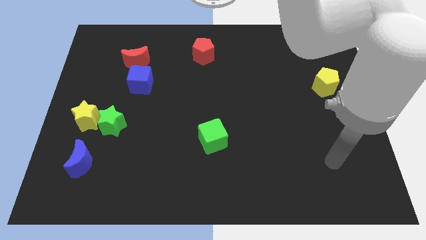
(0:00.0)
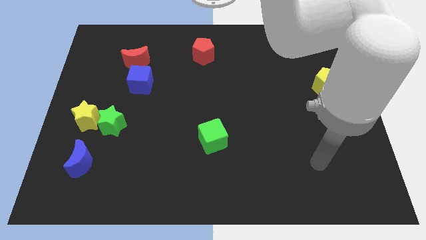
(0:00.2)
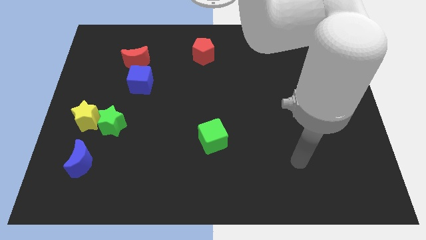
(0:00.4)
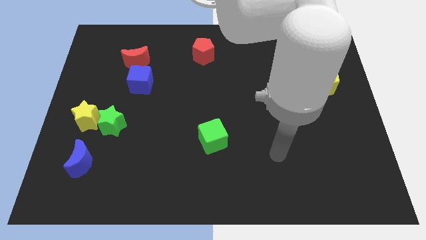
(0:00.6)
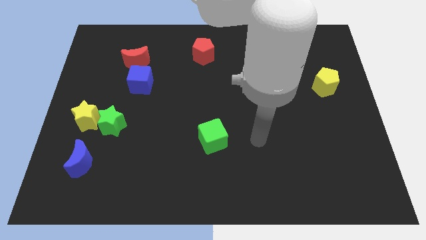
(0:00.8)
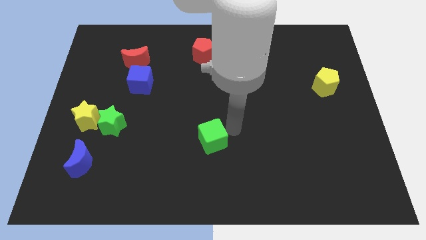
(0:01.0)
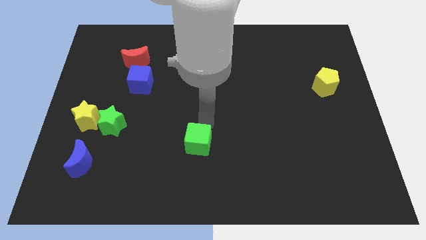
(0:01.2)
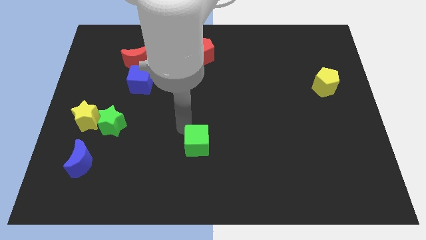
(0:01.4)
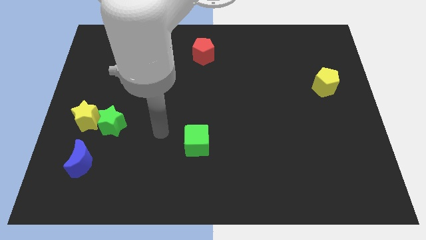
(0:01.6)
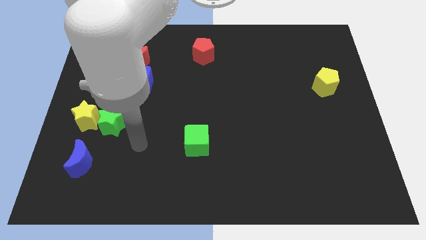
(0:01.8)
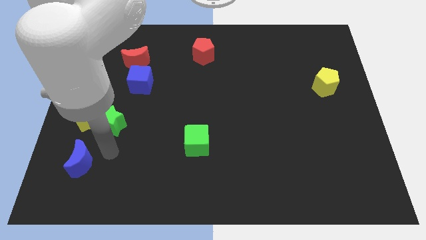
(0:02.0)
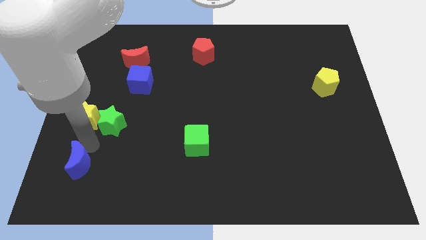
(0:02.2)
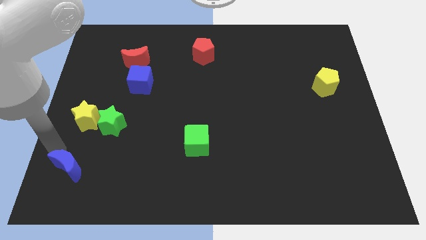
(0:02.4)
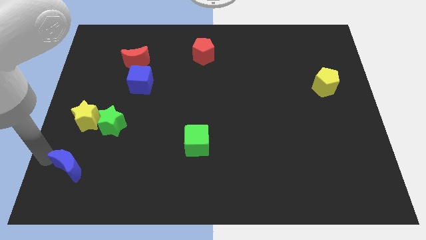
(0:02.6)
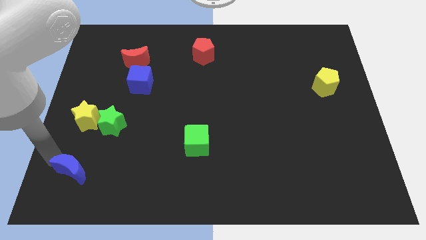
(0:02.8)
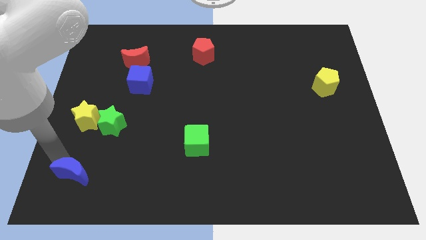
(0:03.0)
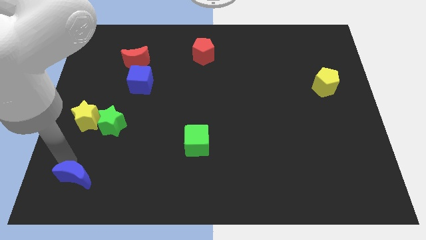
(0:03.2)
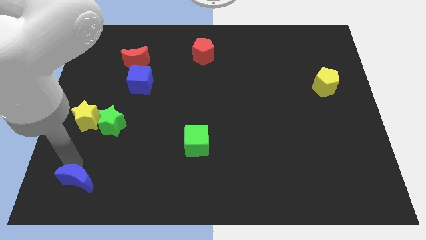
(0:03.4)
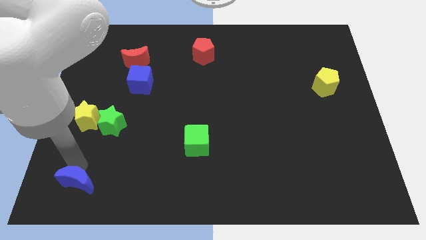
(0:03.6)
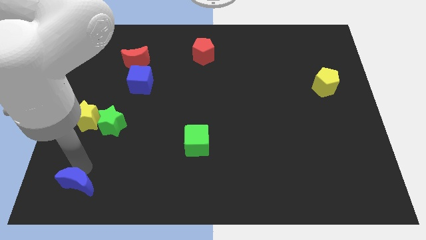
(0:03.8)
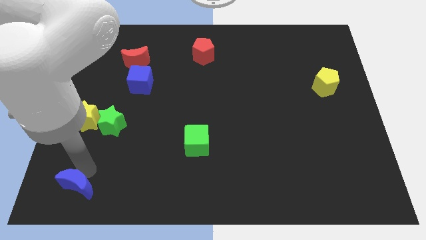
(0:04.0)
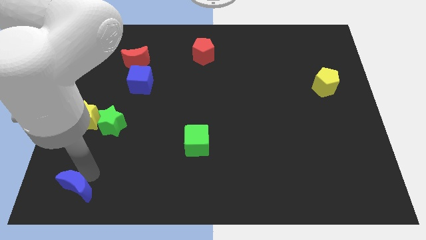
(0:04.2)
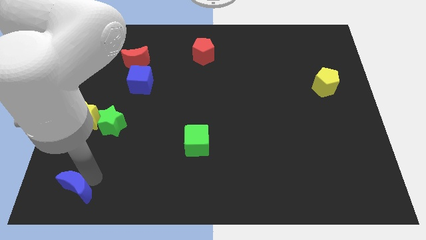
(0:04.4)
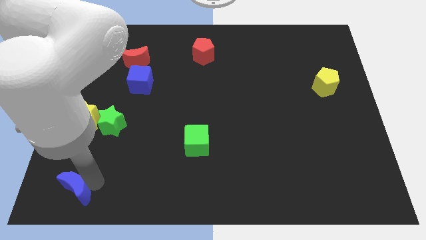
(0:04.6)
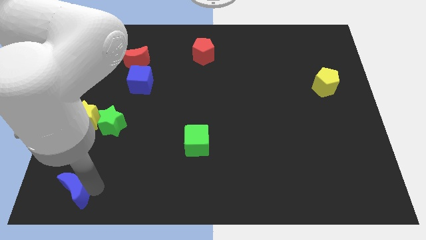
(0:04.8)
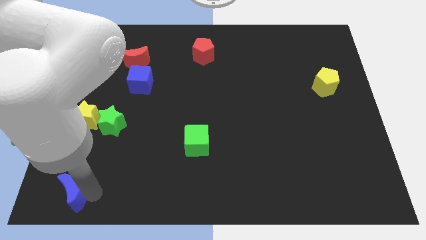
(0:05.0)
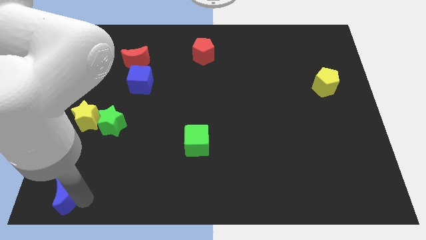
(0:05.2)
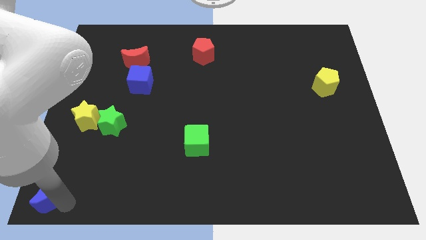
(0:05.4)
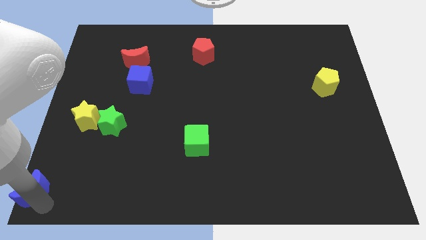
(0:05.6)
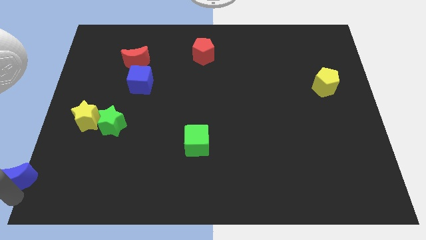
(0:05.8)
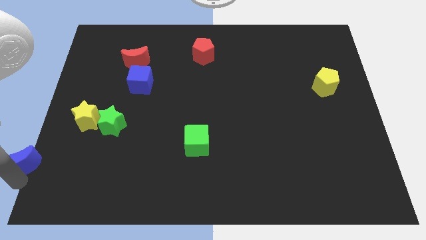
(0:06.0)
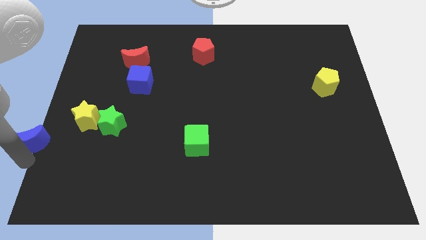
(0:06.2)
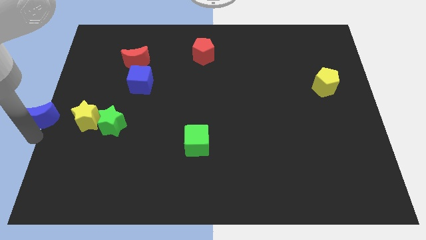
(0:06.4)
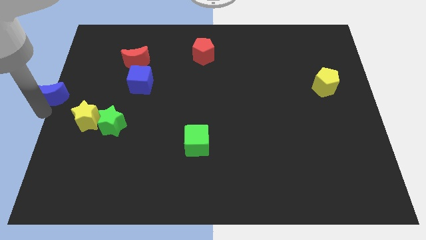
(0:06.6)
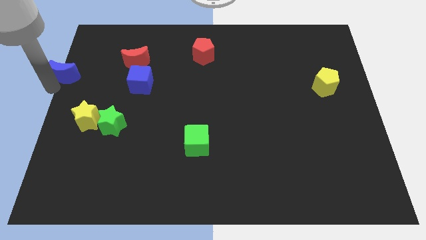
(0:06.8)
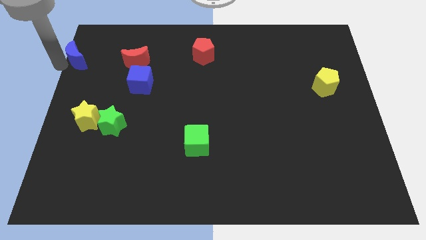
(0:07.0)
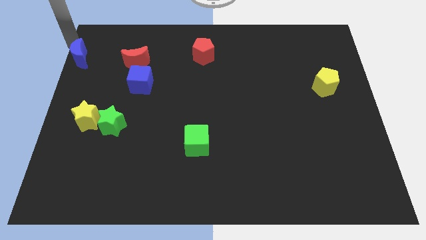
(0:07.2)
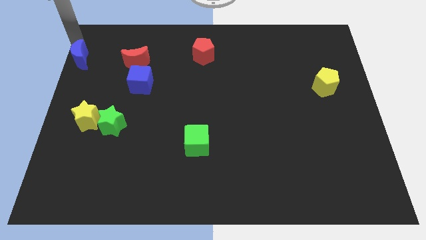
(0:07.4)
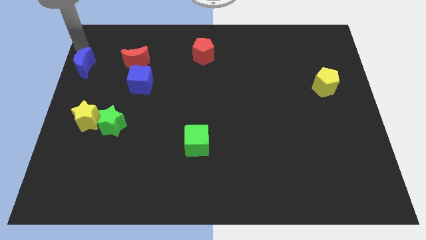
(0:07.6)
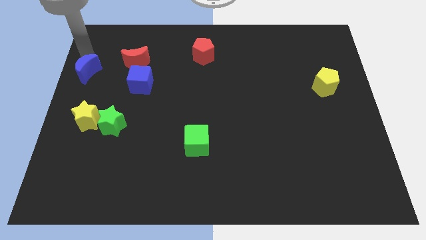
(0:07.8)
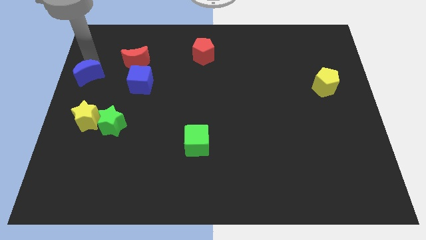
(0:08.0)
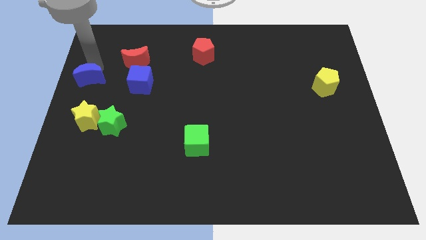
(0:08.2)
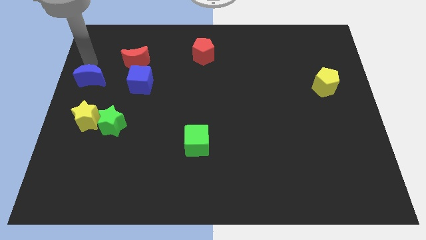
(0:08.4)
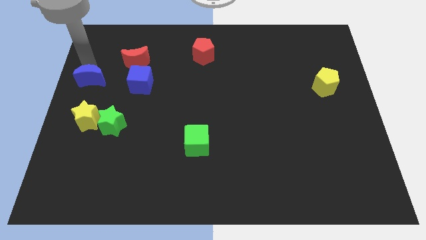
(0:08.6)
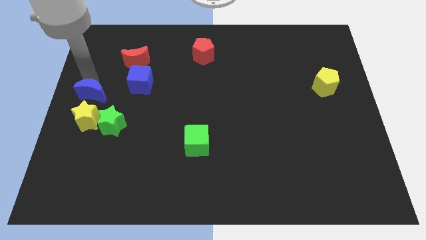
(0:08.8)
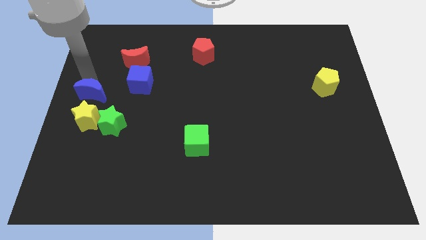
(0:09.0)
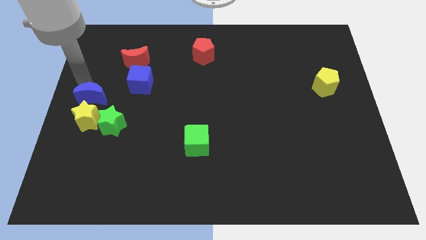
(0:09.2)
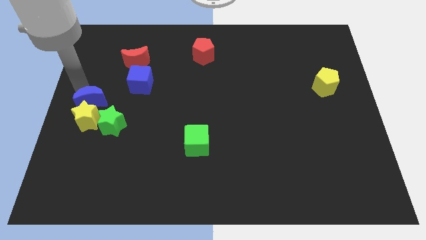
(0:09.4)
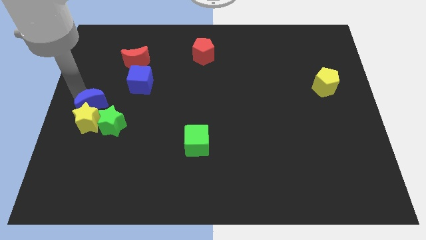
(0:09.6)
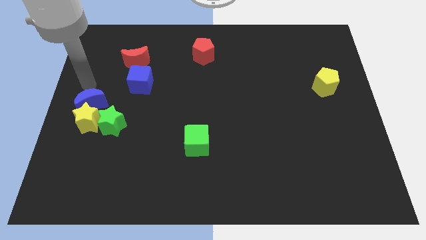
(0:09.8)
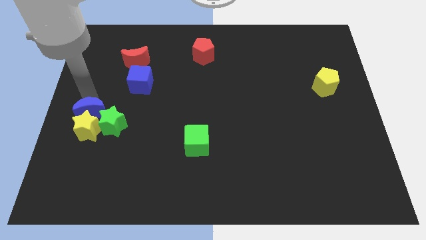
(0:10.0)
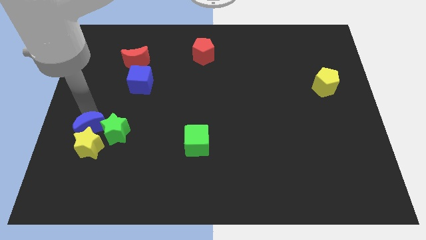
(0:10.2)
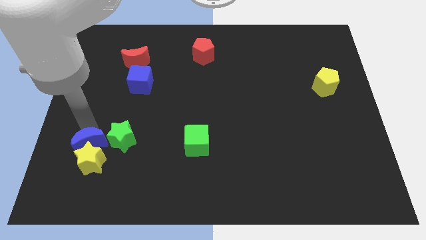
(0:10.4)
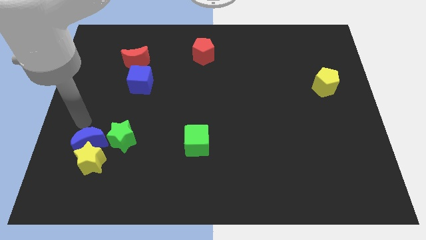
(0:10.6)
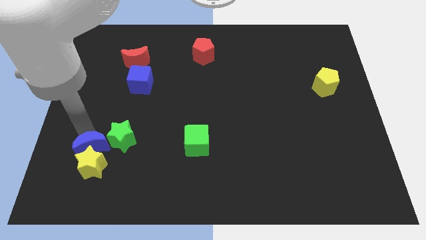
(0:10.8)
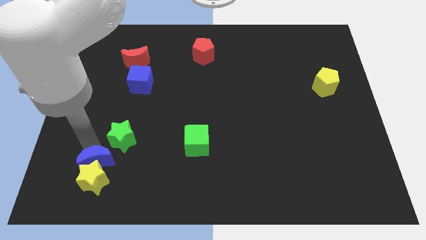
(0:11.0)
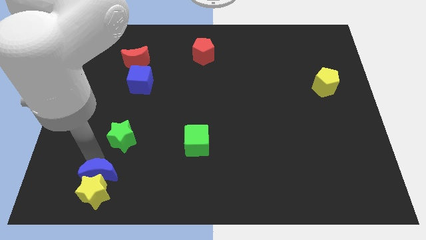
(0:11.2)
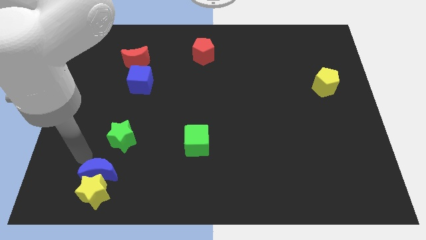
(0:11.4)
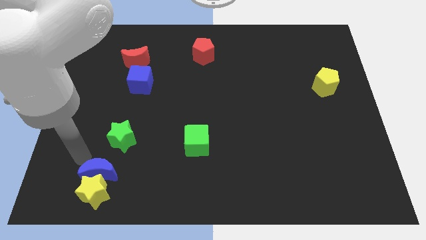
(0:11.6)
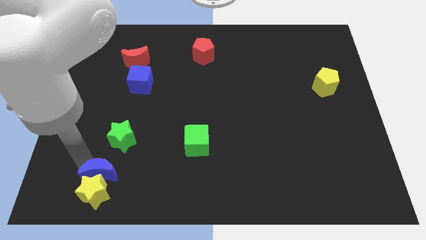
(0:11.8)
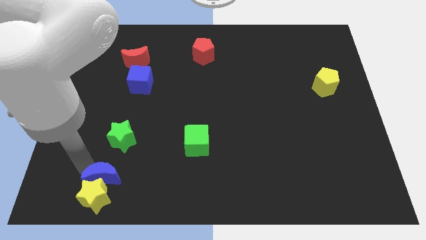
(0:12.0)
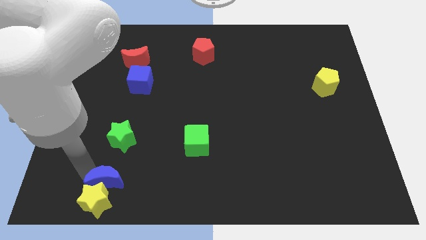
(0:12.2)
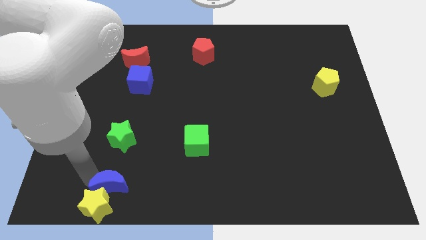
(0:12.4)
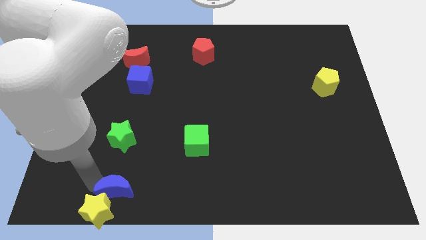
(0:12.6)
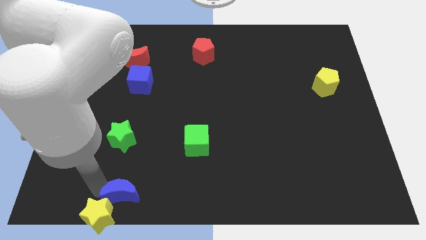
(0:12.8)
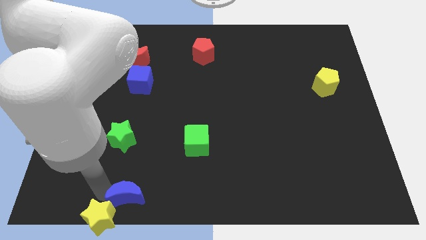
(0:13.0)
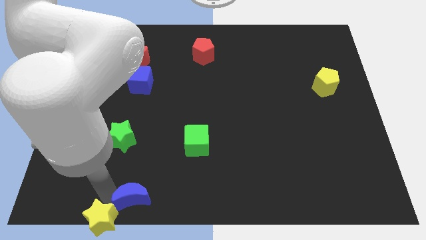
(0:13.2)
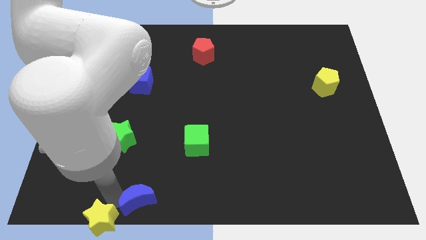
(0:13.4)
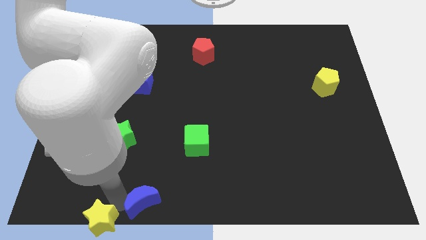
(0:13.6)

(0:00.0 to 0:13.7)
slide the blue moon to the bottom side

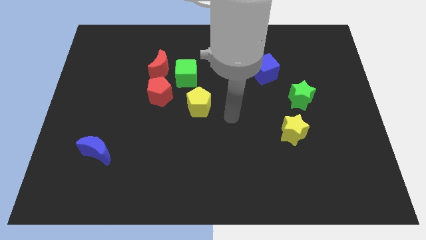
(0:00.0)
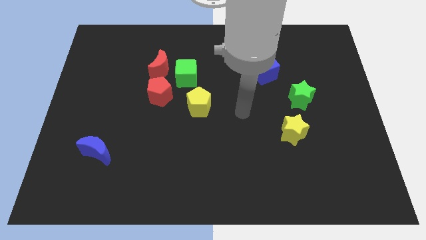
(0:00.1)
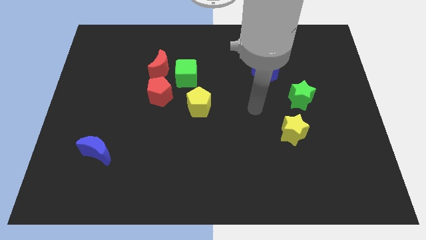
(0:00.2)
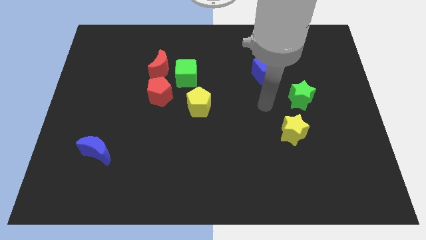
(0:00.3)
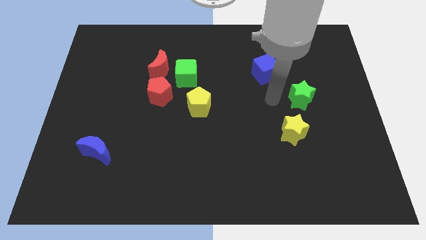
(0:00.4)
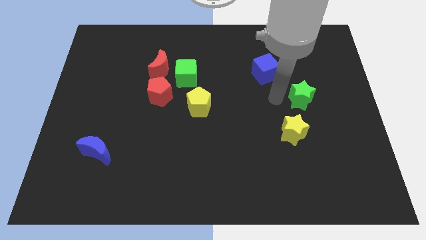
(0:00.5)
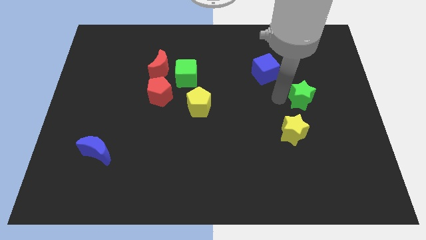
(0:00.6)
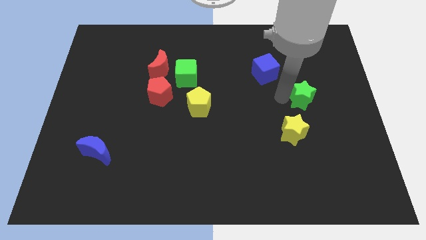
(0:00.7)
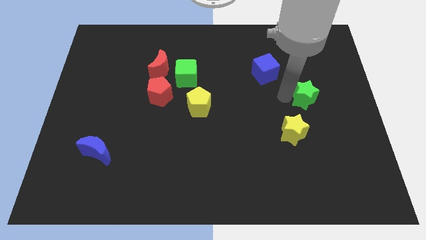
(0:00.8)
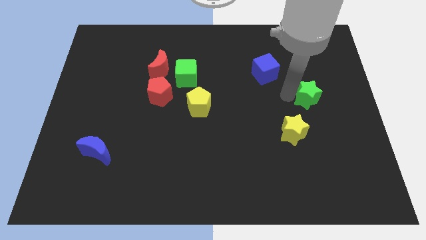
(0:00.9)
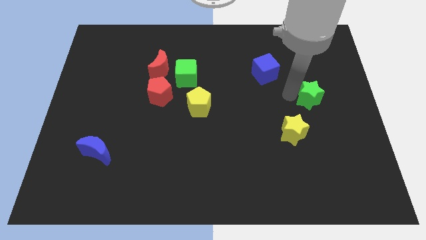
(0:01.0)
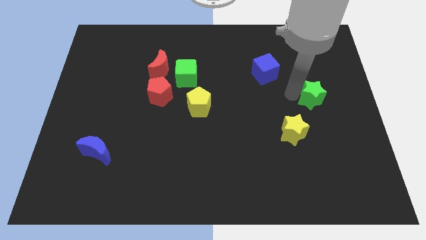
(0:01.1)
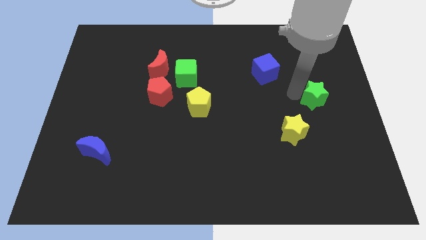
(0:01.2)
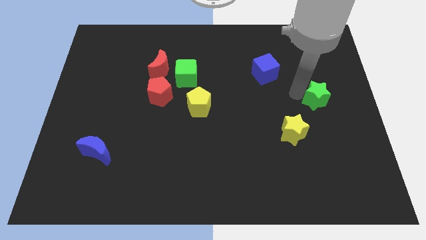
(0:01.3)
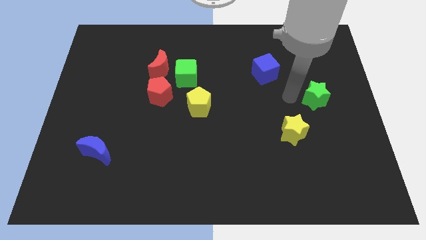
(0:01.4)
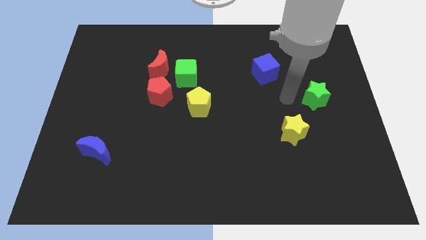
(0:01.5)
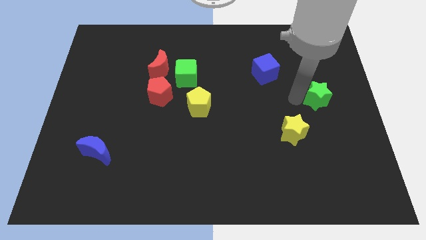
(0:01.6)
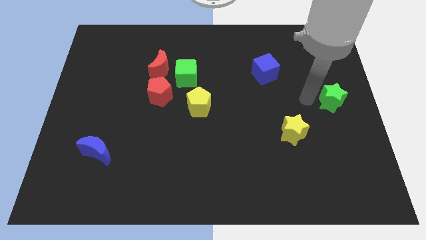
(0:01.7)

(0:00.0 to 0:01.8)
move the green star to the right side of the board
